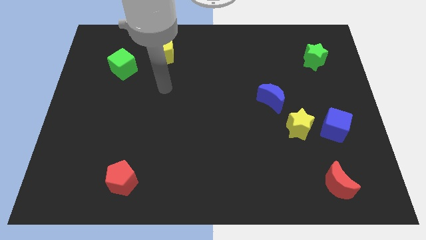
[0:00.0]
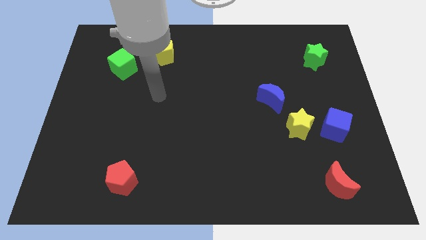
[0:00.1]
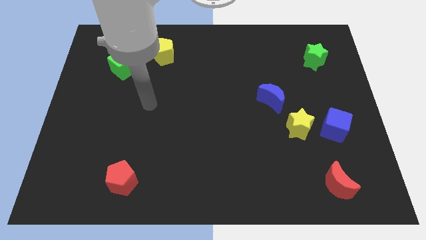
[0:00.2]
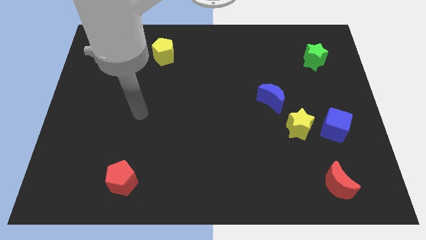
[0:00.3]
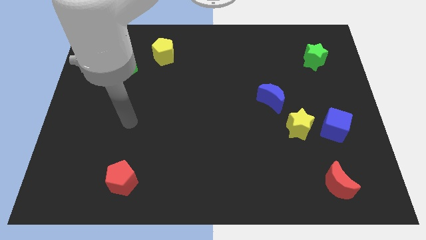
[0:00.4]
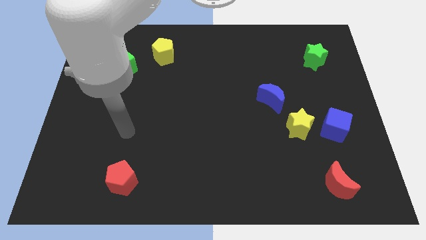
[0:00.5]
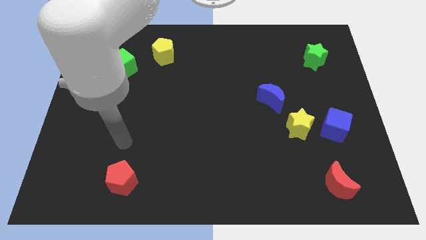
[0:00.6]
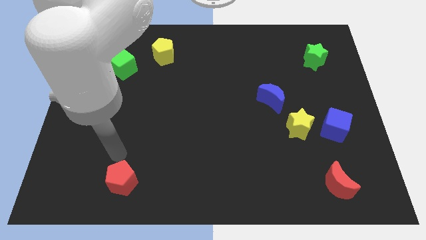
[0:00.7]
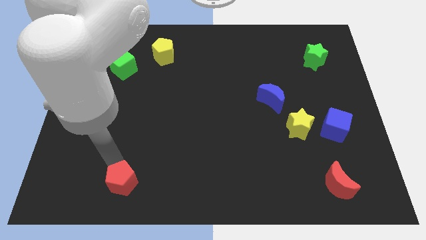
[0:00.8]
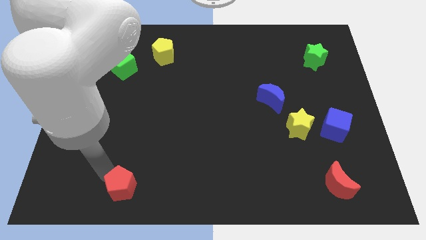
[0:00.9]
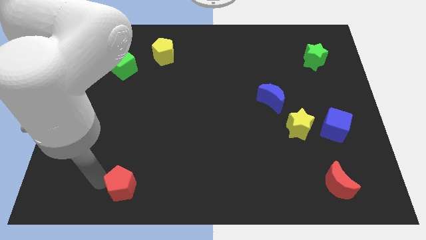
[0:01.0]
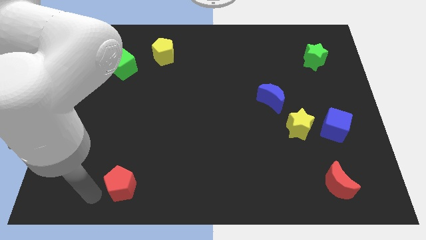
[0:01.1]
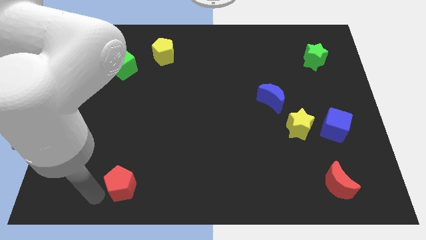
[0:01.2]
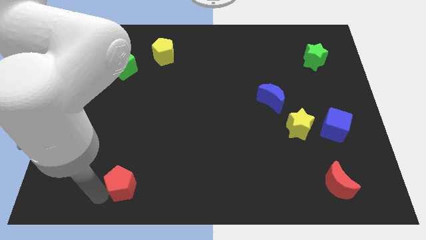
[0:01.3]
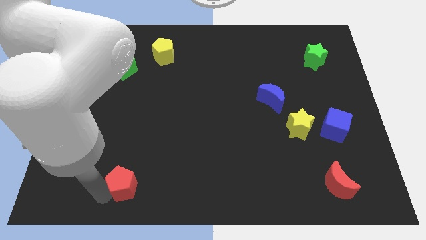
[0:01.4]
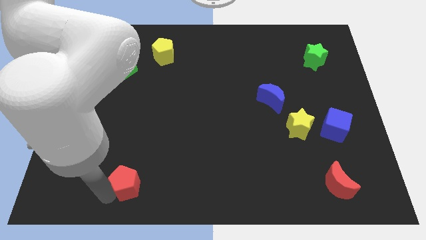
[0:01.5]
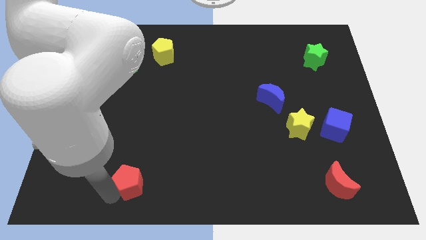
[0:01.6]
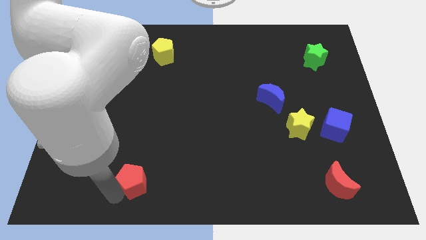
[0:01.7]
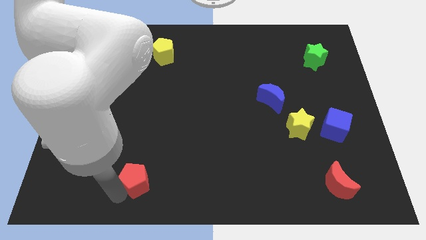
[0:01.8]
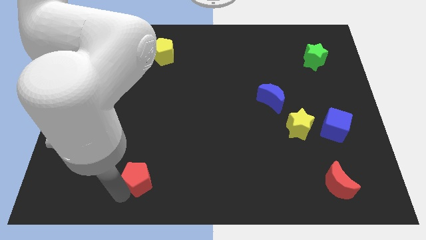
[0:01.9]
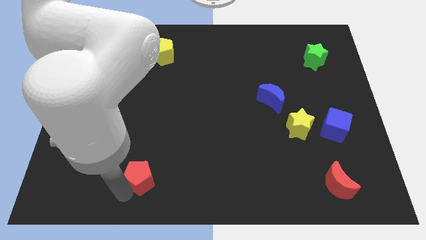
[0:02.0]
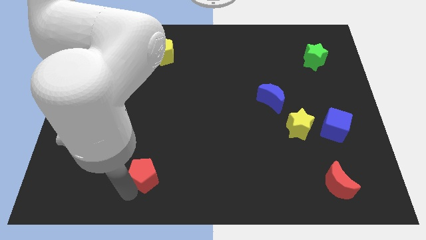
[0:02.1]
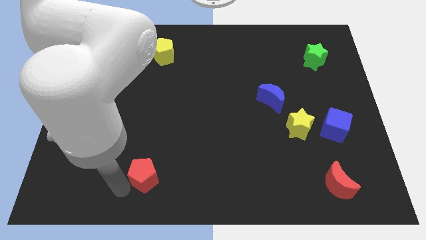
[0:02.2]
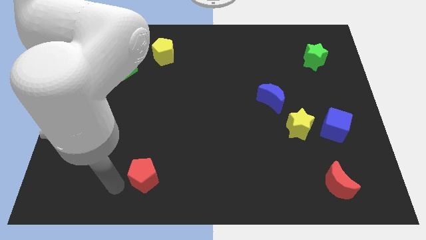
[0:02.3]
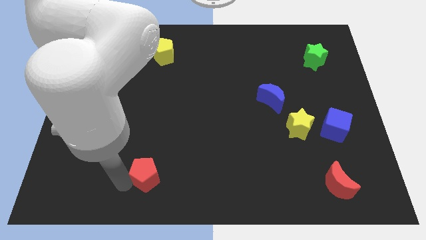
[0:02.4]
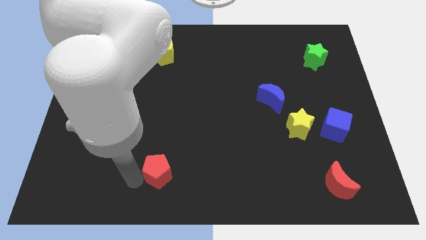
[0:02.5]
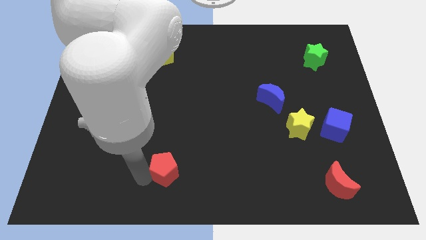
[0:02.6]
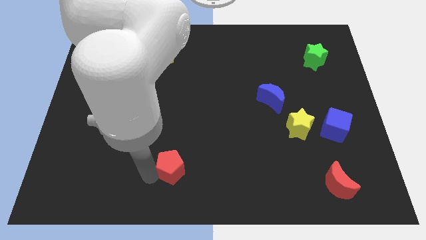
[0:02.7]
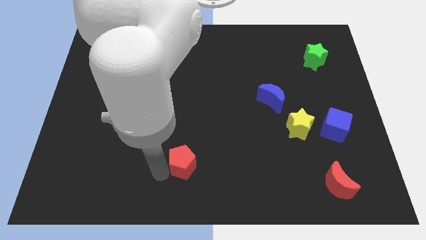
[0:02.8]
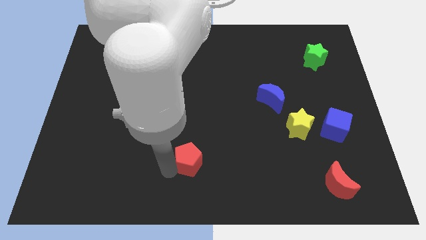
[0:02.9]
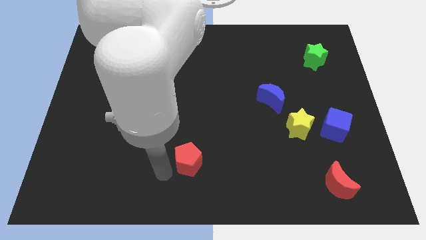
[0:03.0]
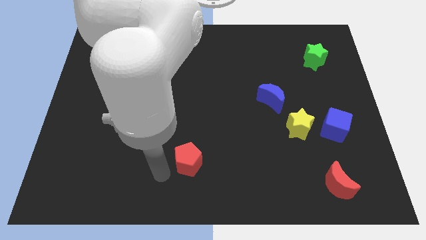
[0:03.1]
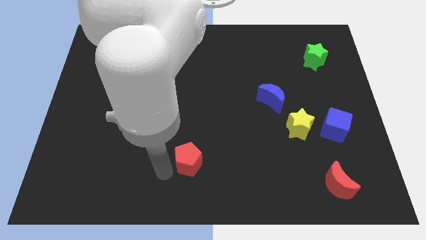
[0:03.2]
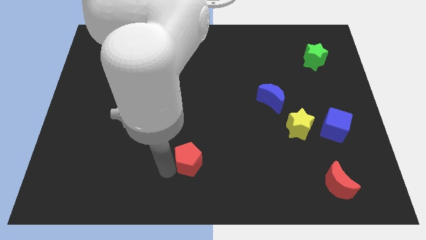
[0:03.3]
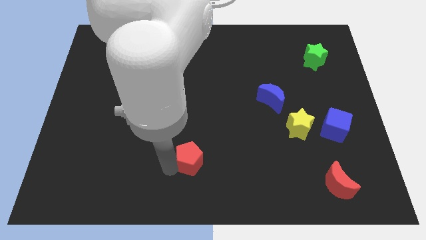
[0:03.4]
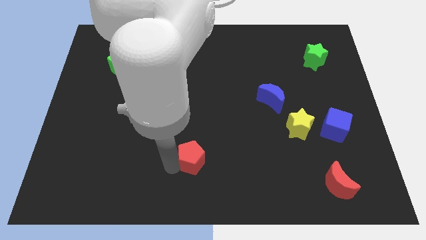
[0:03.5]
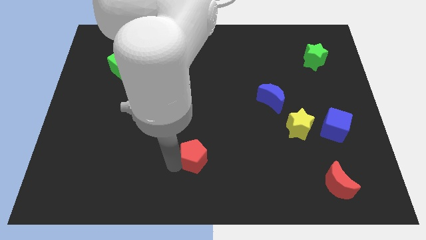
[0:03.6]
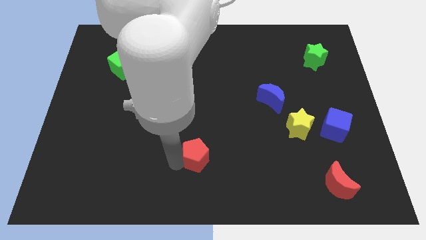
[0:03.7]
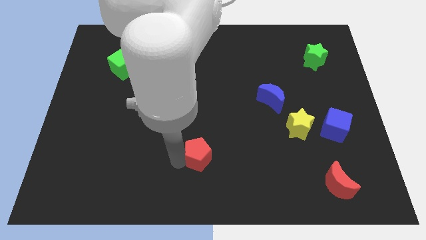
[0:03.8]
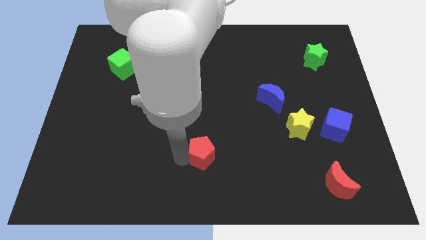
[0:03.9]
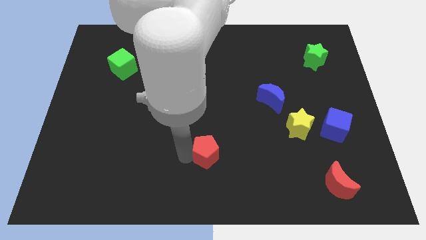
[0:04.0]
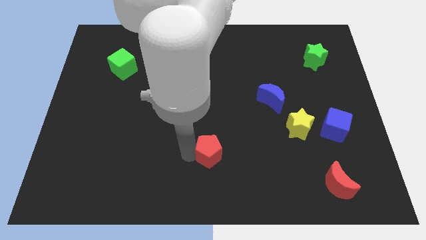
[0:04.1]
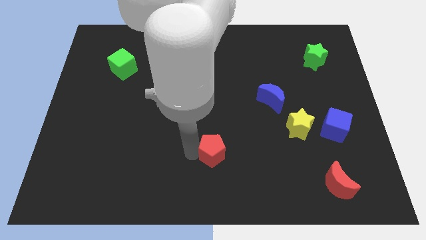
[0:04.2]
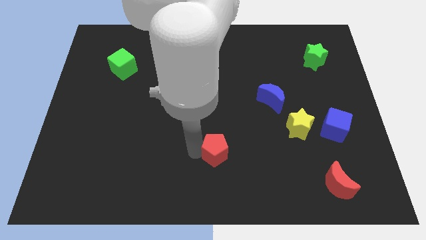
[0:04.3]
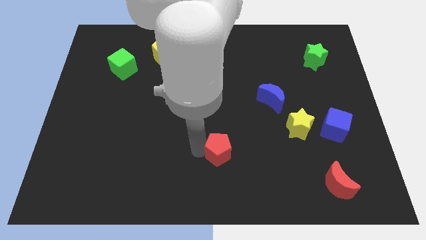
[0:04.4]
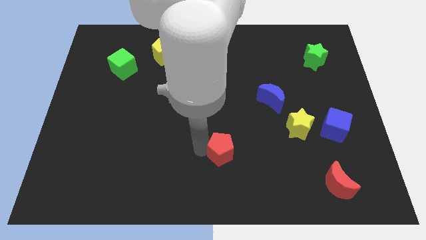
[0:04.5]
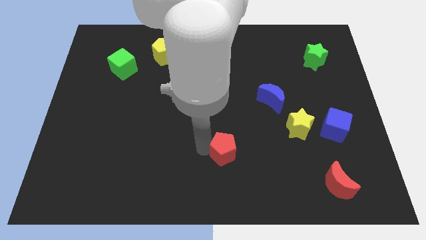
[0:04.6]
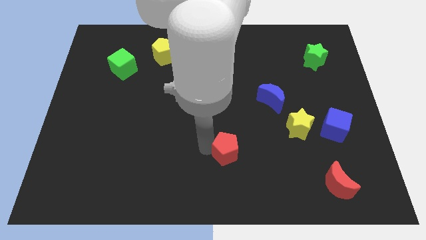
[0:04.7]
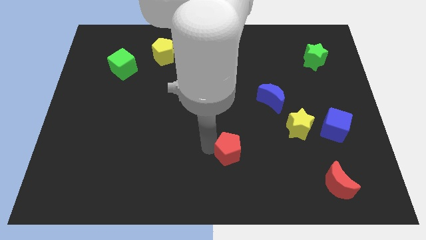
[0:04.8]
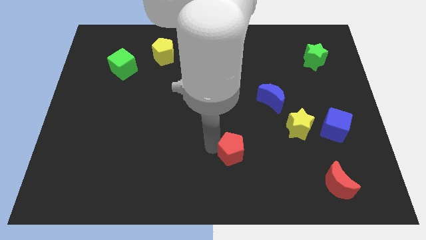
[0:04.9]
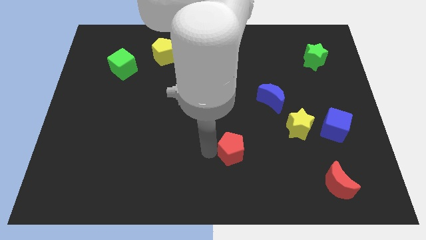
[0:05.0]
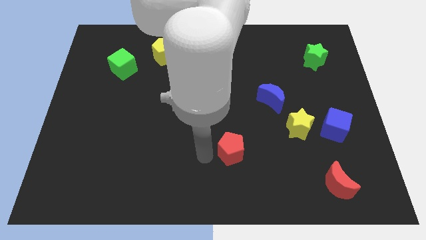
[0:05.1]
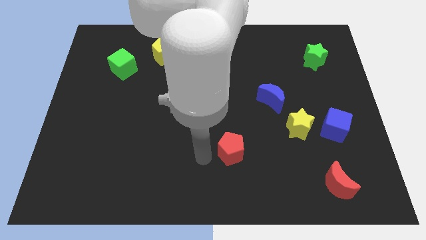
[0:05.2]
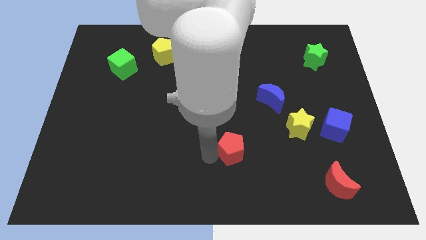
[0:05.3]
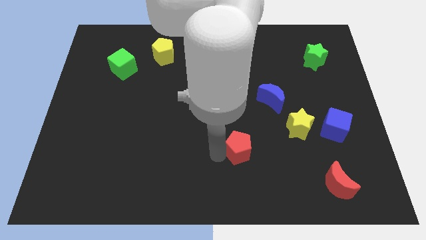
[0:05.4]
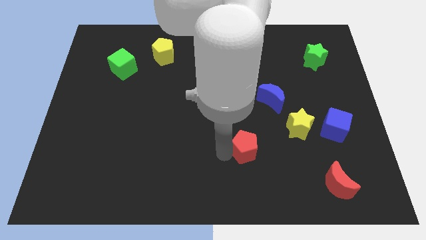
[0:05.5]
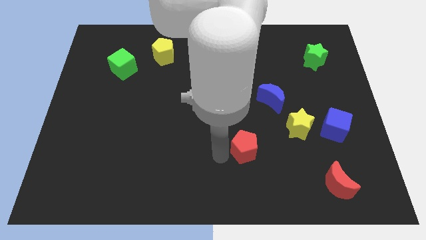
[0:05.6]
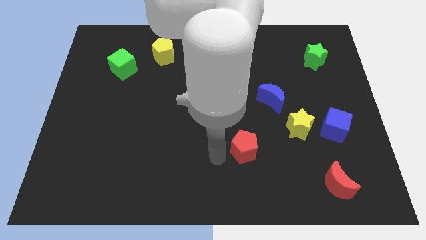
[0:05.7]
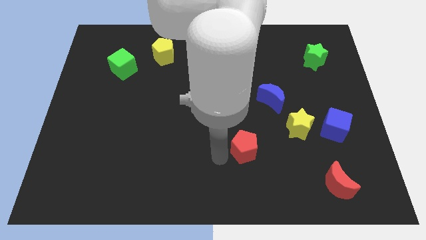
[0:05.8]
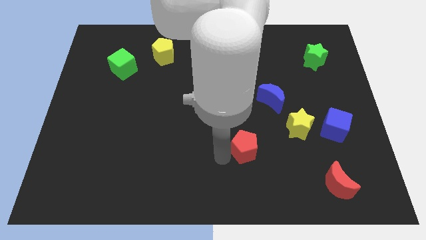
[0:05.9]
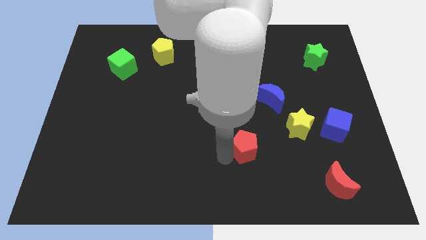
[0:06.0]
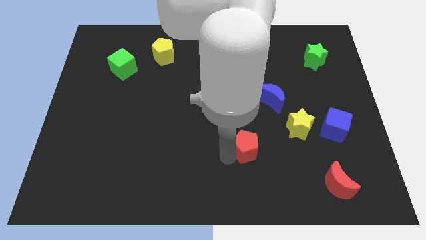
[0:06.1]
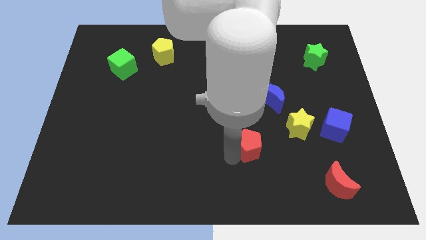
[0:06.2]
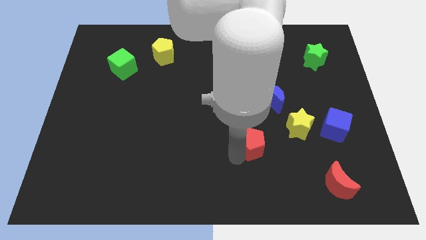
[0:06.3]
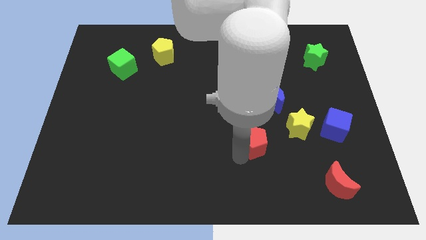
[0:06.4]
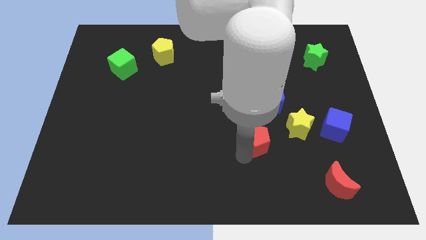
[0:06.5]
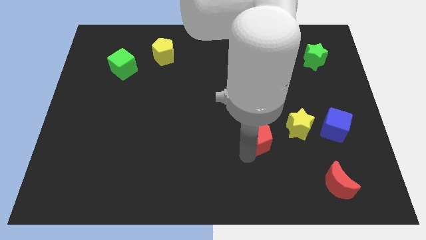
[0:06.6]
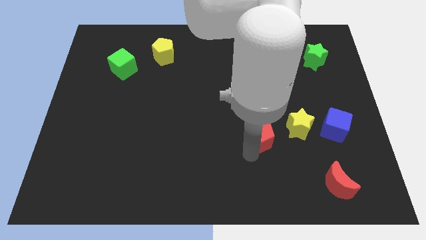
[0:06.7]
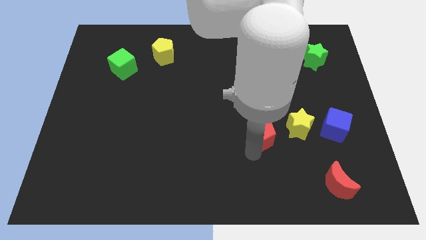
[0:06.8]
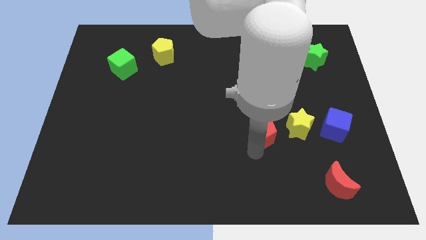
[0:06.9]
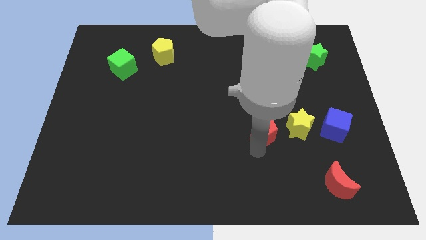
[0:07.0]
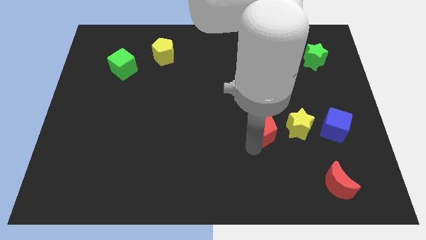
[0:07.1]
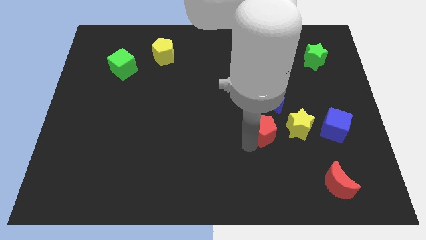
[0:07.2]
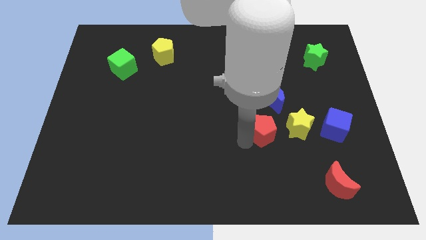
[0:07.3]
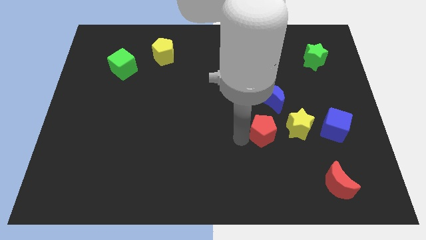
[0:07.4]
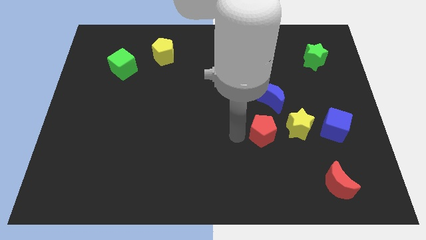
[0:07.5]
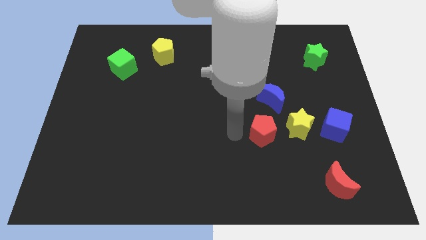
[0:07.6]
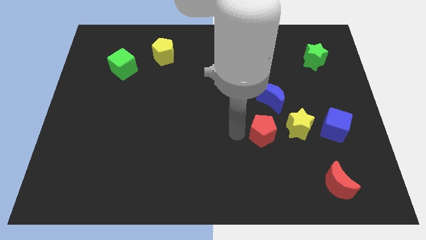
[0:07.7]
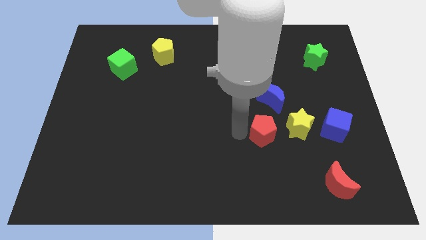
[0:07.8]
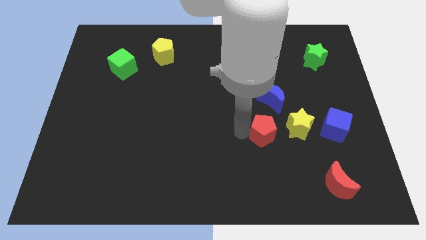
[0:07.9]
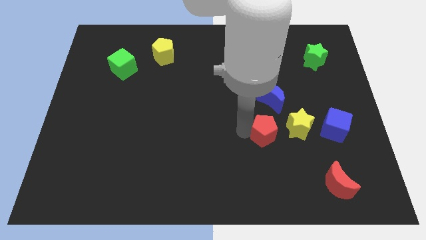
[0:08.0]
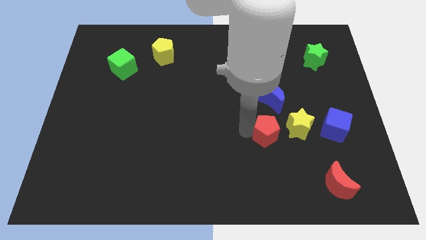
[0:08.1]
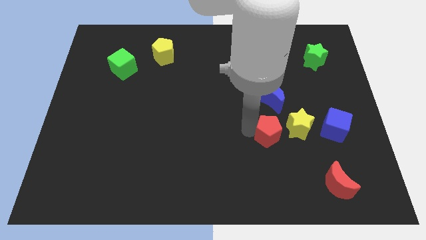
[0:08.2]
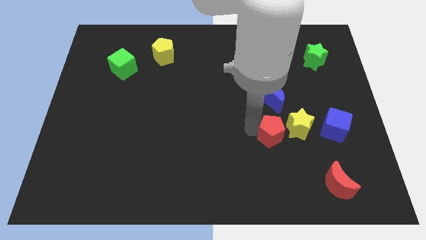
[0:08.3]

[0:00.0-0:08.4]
push the red pentagon next to the yellow star
